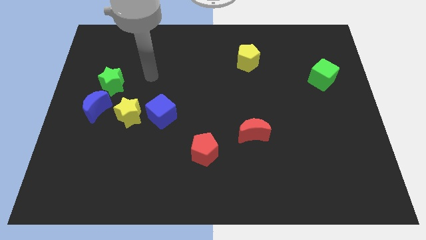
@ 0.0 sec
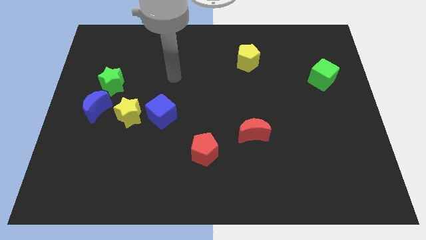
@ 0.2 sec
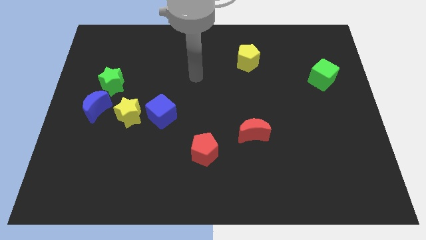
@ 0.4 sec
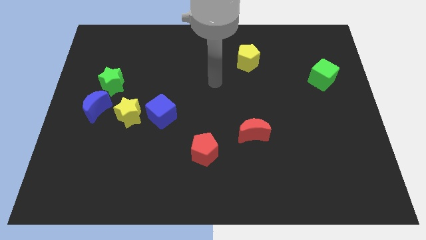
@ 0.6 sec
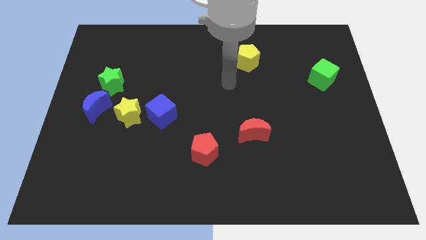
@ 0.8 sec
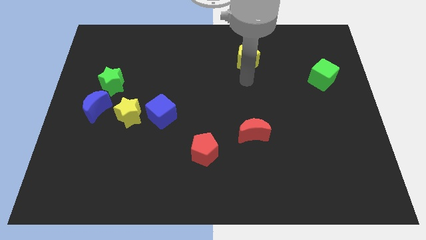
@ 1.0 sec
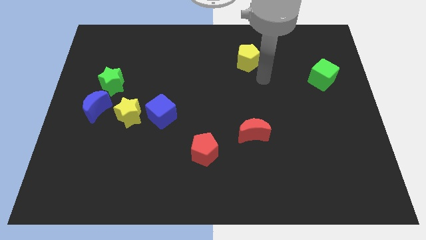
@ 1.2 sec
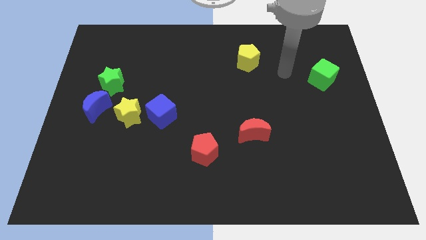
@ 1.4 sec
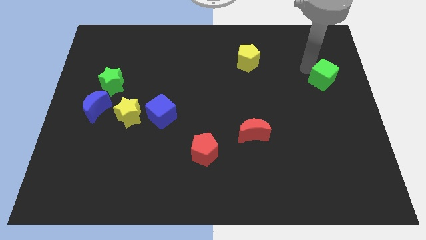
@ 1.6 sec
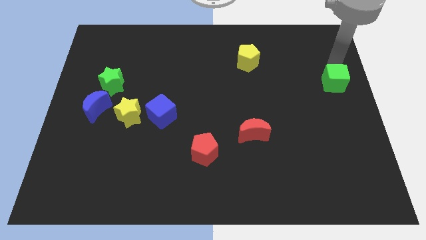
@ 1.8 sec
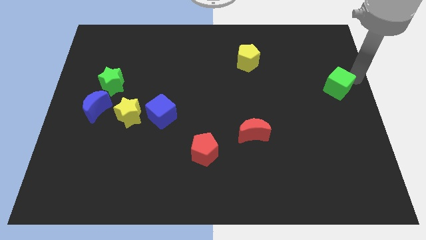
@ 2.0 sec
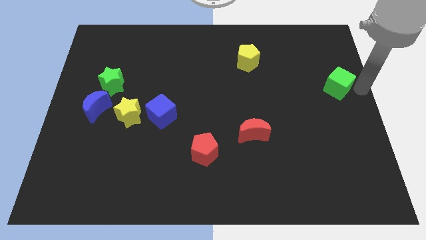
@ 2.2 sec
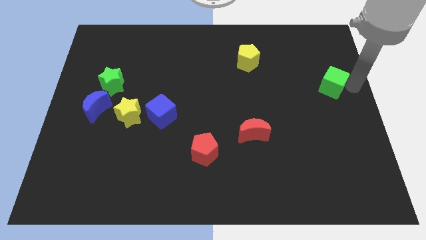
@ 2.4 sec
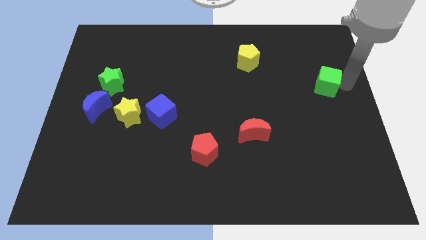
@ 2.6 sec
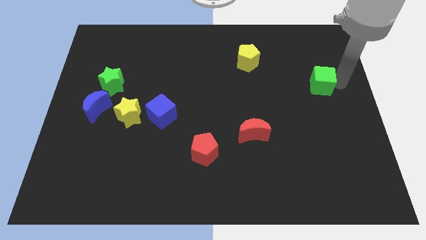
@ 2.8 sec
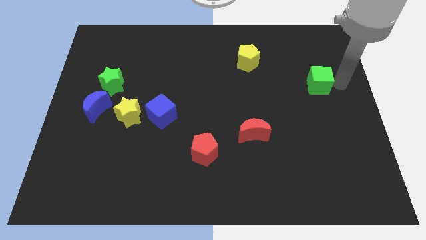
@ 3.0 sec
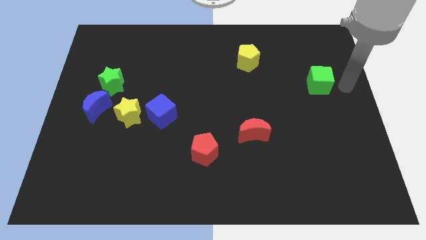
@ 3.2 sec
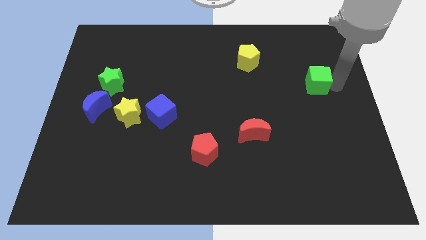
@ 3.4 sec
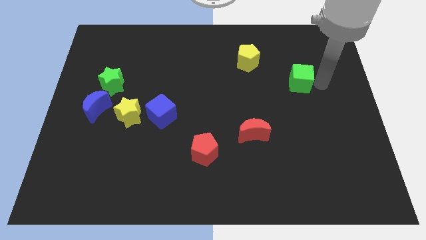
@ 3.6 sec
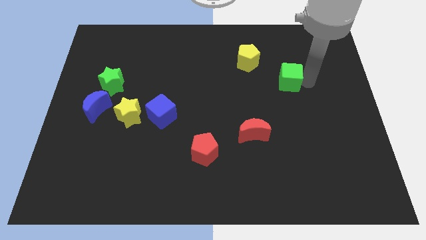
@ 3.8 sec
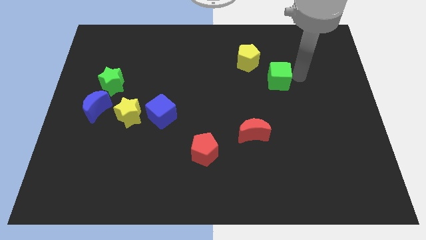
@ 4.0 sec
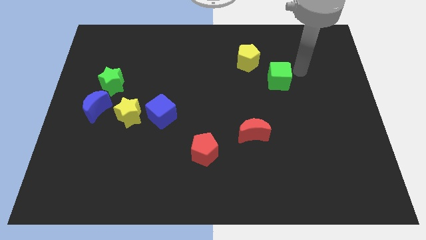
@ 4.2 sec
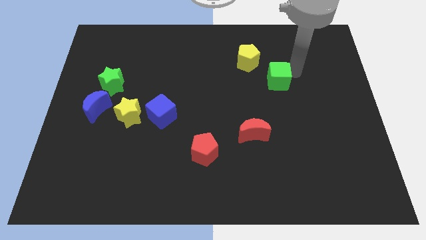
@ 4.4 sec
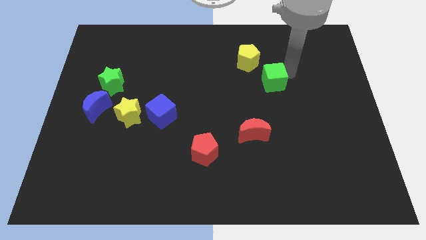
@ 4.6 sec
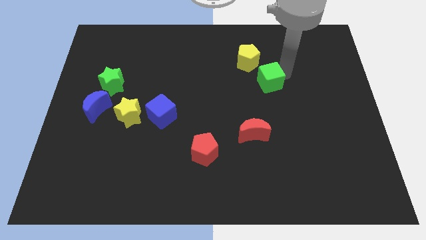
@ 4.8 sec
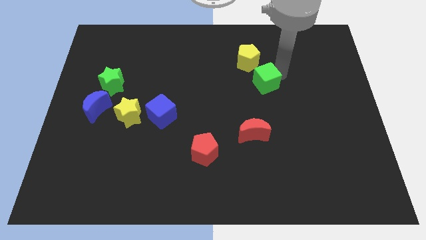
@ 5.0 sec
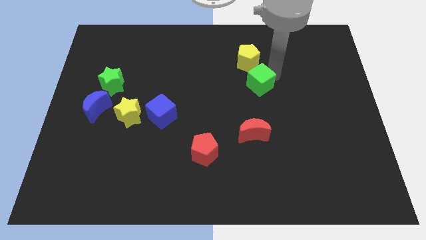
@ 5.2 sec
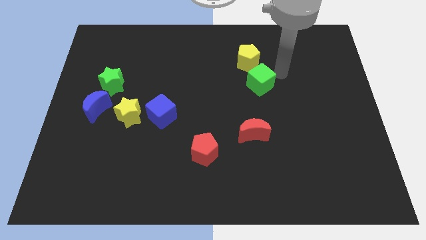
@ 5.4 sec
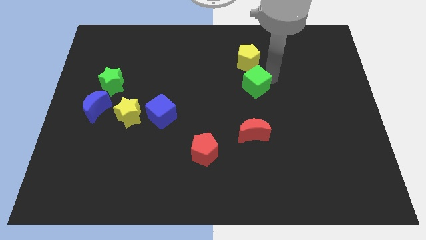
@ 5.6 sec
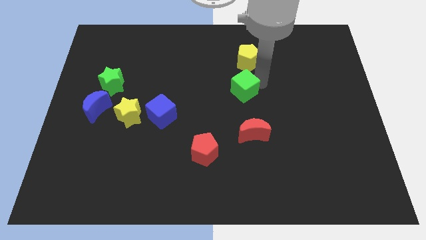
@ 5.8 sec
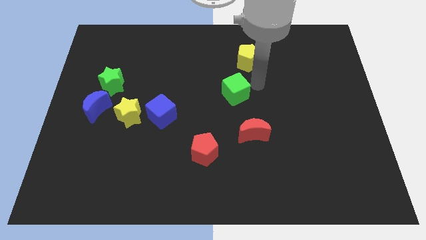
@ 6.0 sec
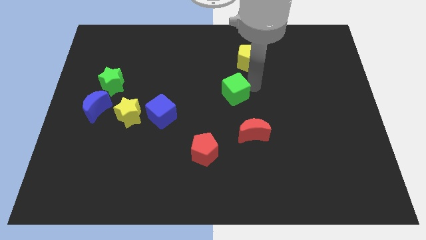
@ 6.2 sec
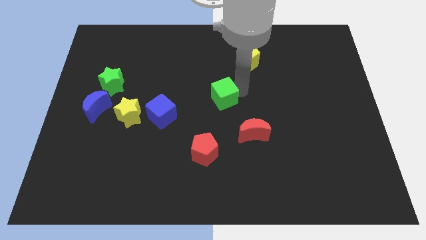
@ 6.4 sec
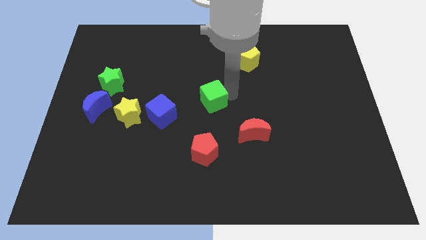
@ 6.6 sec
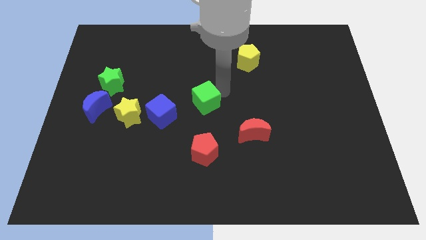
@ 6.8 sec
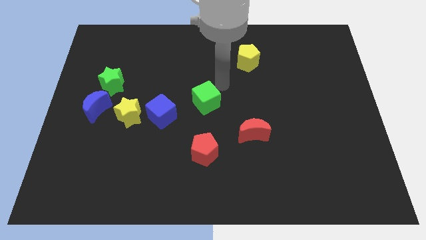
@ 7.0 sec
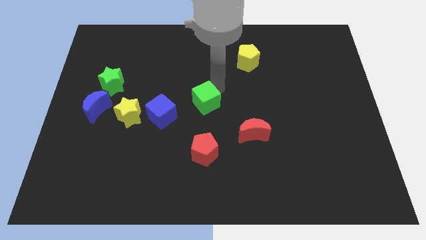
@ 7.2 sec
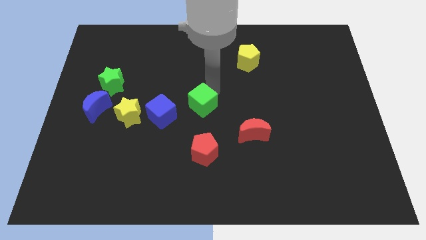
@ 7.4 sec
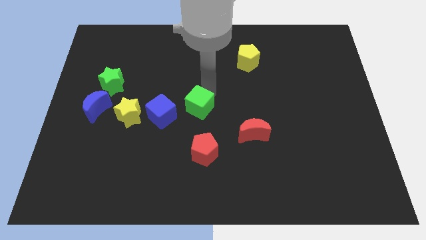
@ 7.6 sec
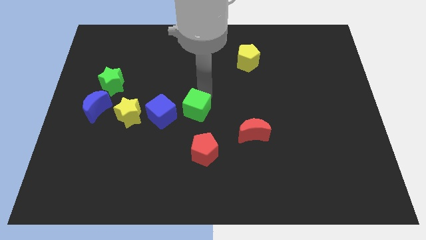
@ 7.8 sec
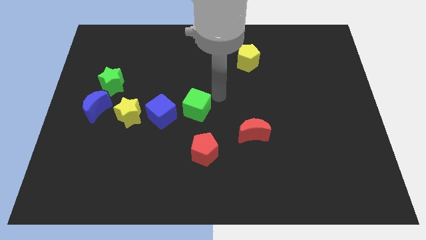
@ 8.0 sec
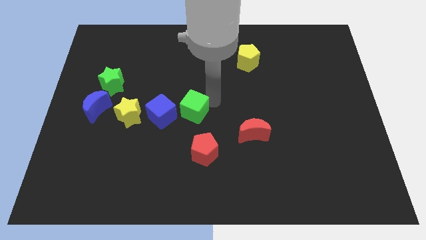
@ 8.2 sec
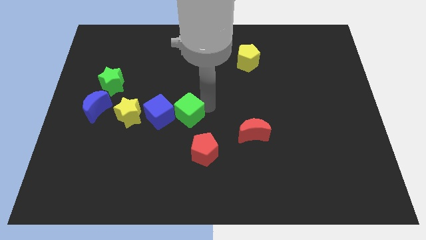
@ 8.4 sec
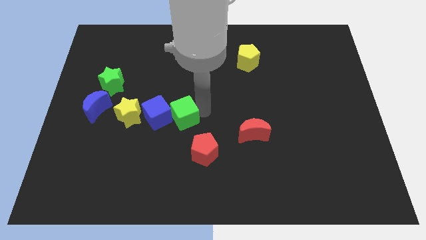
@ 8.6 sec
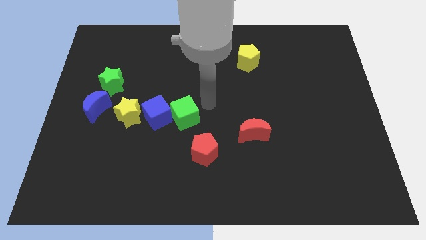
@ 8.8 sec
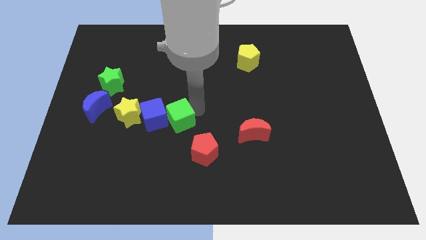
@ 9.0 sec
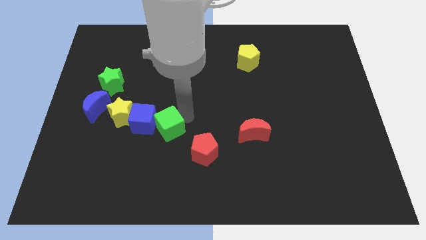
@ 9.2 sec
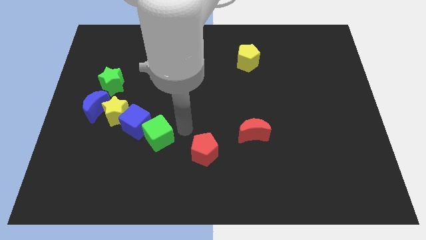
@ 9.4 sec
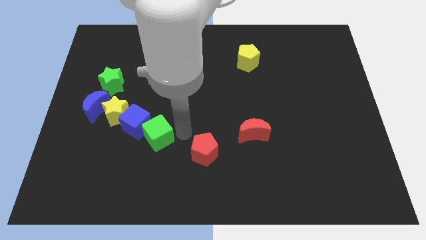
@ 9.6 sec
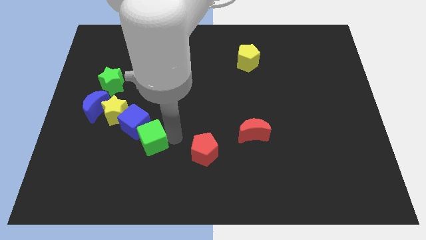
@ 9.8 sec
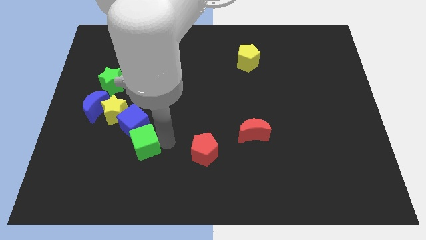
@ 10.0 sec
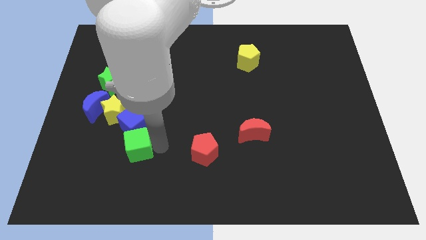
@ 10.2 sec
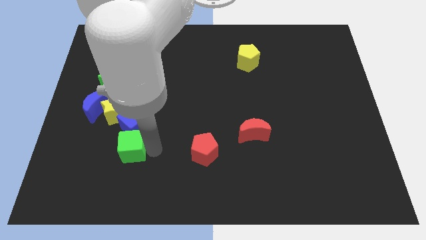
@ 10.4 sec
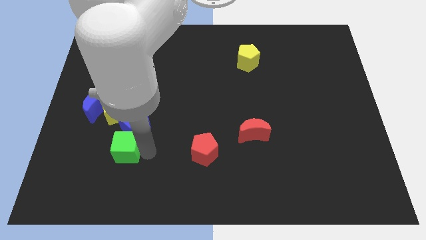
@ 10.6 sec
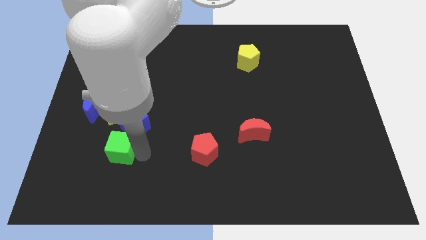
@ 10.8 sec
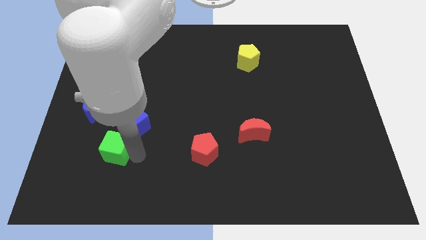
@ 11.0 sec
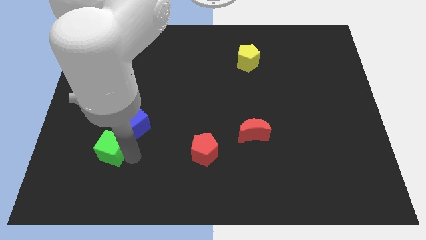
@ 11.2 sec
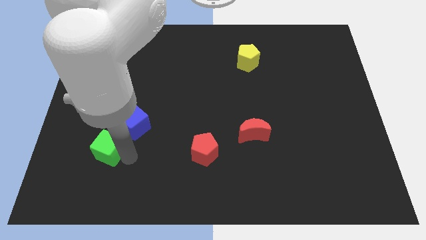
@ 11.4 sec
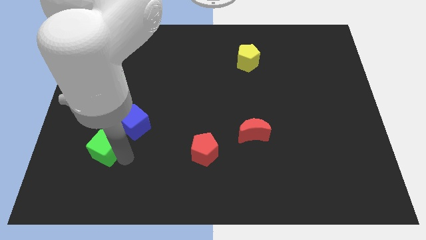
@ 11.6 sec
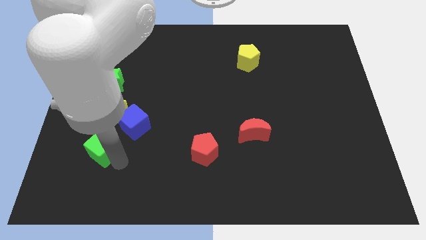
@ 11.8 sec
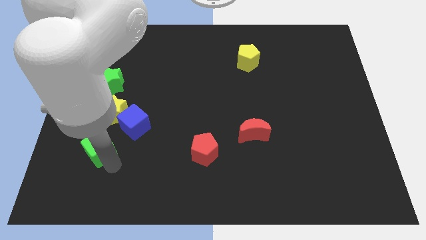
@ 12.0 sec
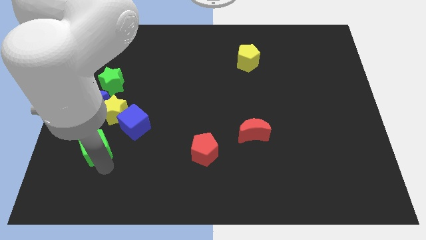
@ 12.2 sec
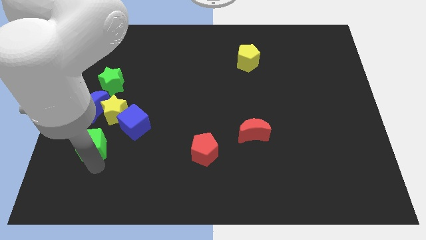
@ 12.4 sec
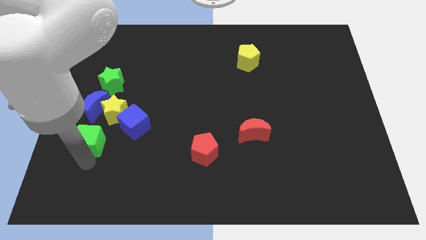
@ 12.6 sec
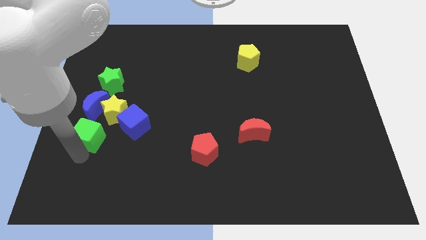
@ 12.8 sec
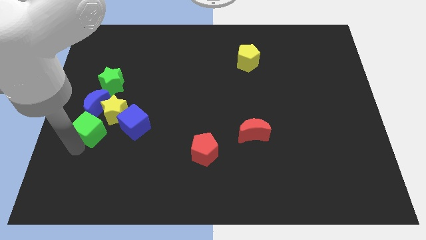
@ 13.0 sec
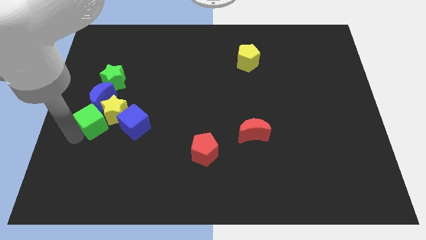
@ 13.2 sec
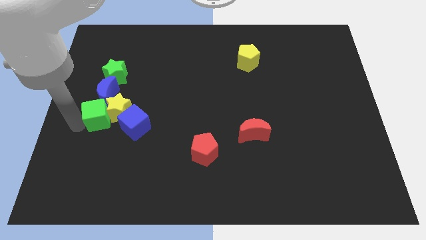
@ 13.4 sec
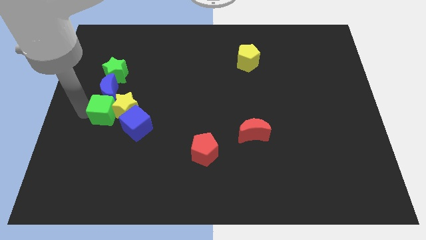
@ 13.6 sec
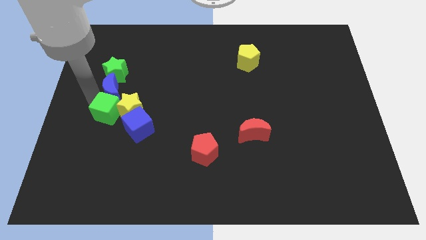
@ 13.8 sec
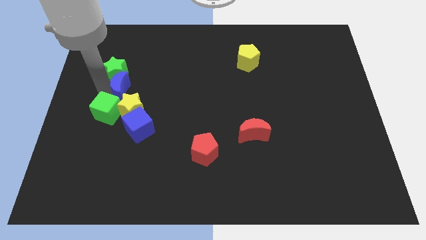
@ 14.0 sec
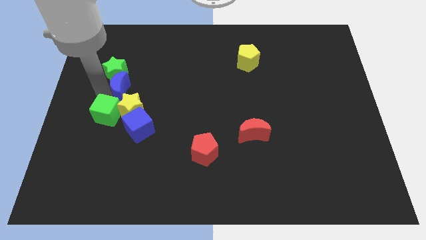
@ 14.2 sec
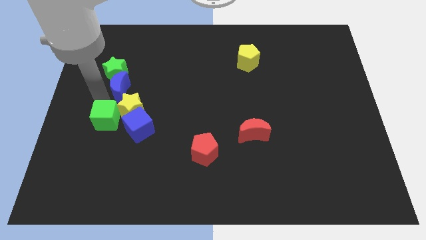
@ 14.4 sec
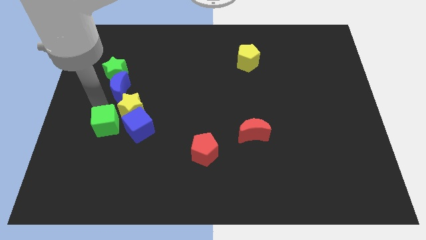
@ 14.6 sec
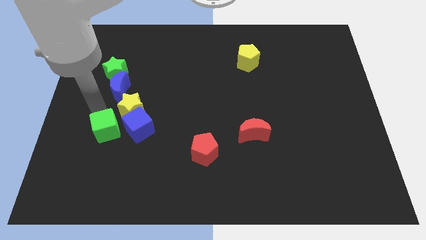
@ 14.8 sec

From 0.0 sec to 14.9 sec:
slide the green cube to the bottom left side of the blue cube
